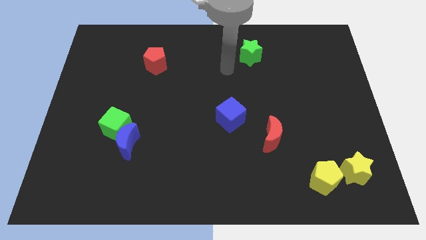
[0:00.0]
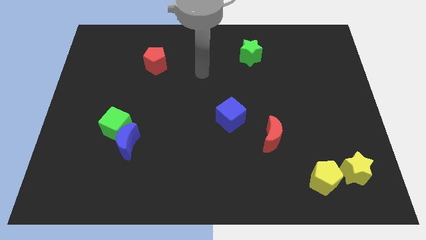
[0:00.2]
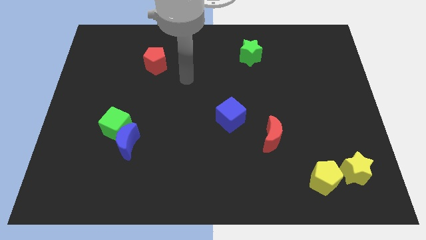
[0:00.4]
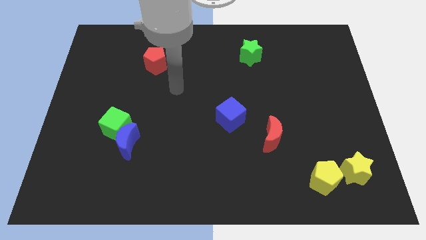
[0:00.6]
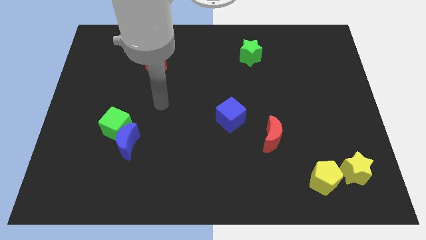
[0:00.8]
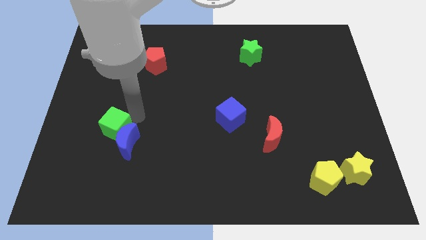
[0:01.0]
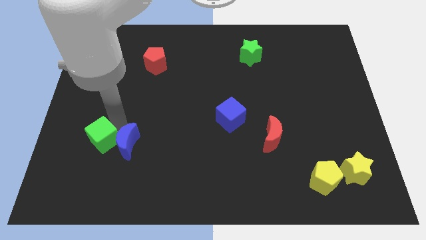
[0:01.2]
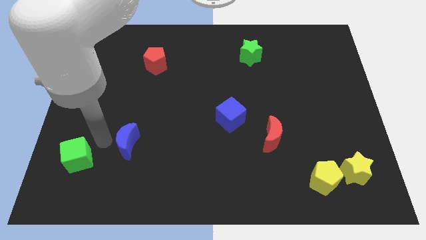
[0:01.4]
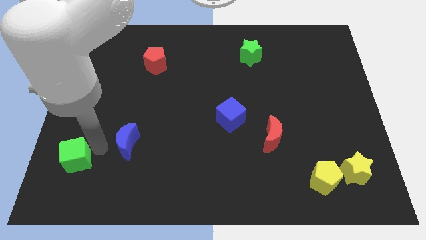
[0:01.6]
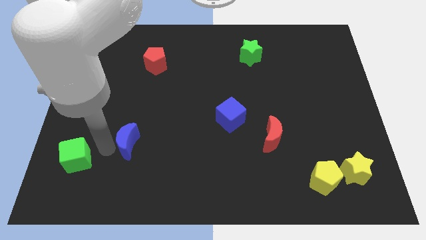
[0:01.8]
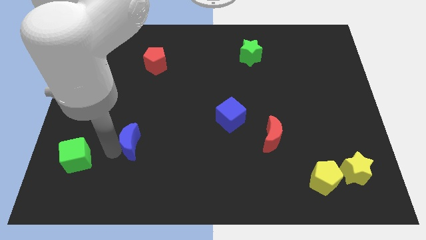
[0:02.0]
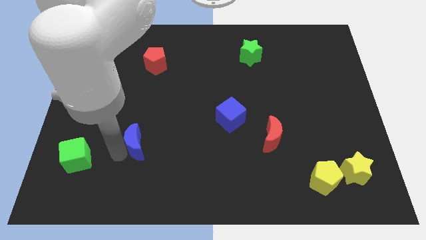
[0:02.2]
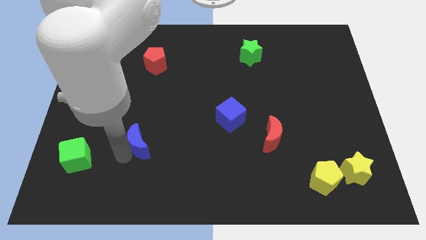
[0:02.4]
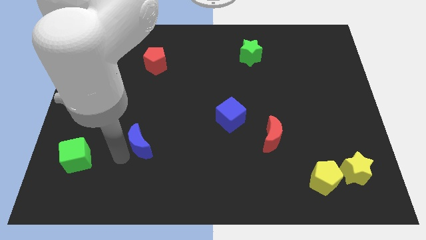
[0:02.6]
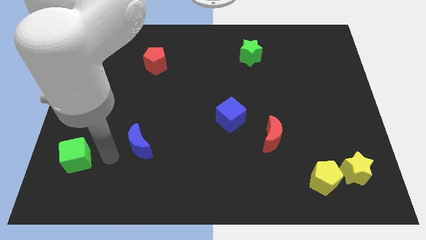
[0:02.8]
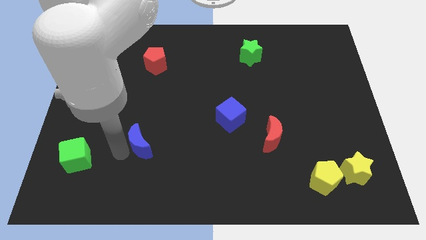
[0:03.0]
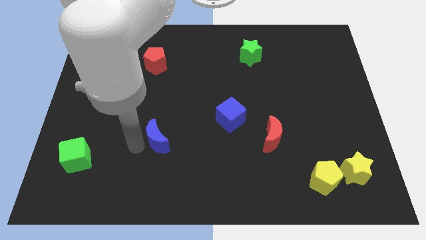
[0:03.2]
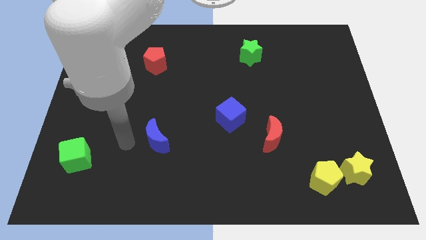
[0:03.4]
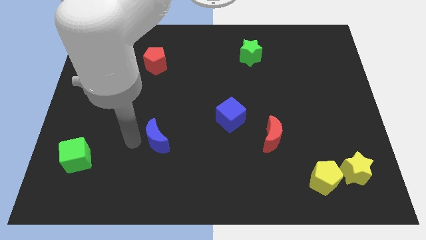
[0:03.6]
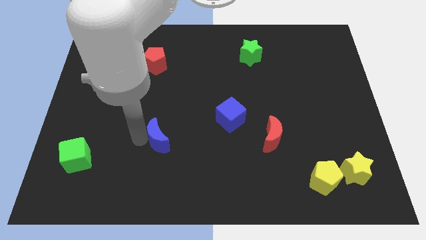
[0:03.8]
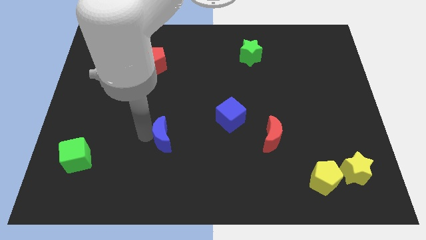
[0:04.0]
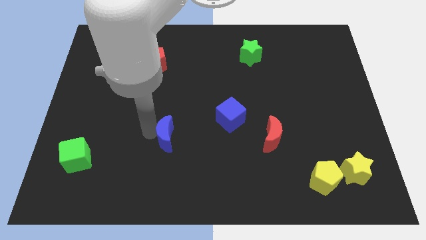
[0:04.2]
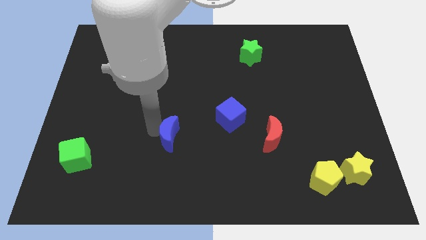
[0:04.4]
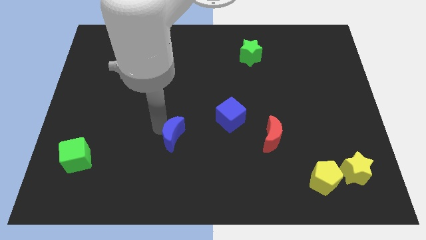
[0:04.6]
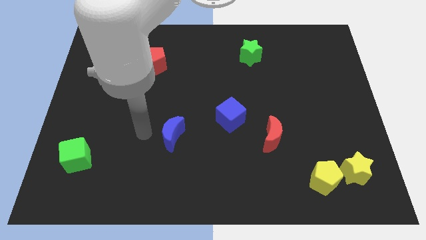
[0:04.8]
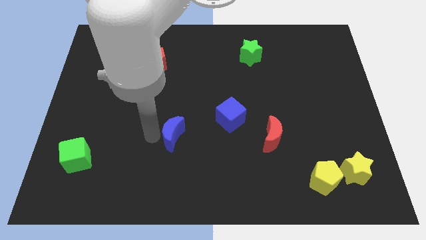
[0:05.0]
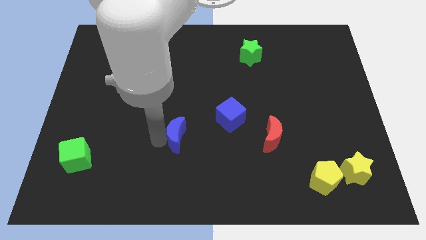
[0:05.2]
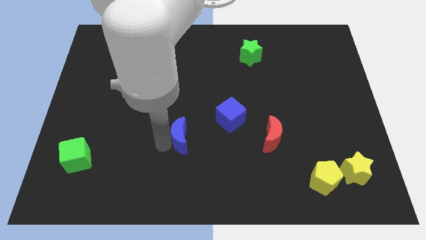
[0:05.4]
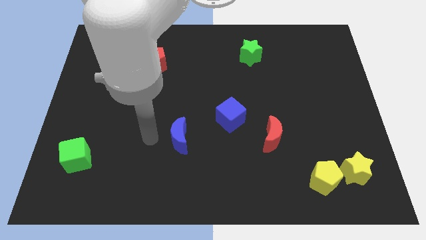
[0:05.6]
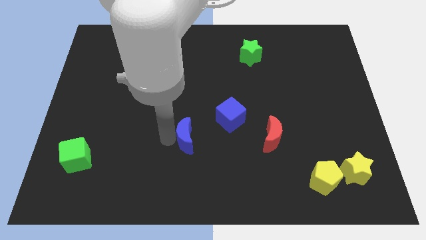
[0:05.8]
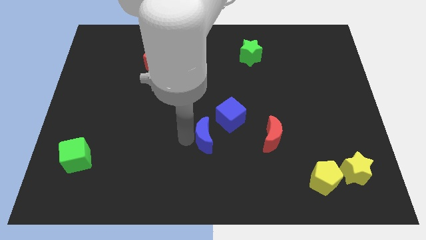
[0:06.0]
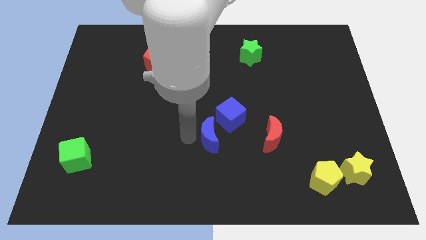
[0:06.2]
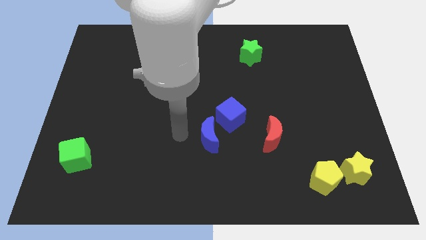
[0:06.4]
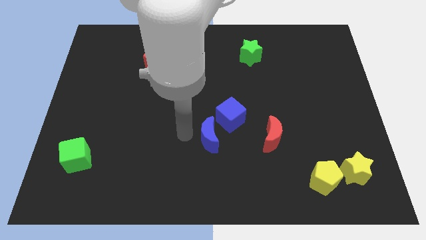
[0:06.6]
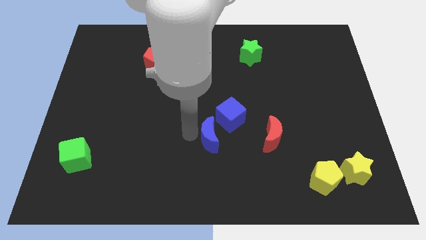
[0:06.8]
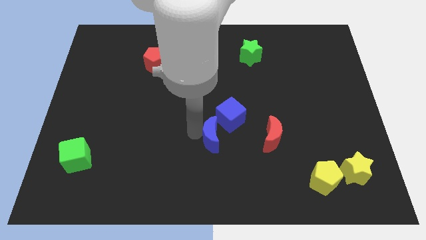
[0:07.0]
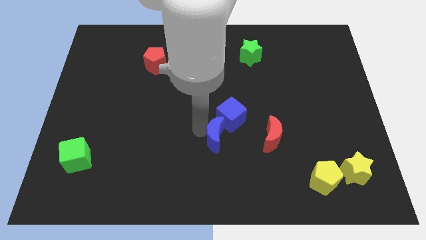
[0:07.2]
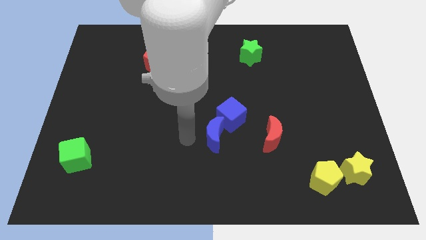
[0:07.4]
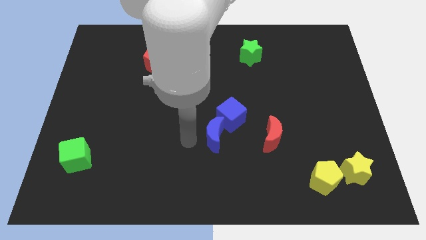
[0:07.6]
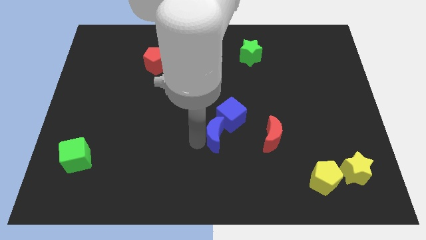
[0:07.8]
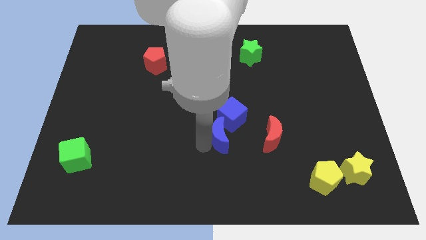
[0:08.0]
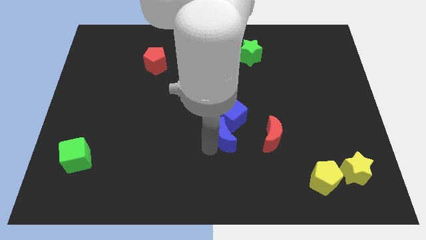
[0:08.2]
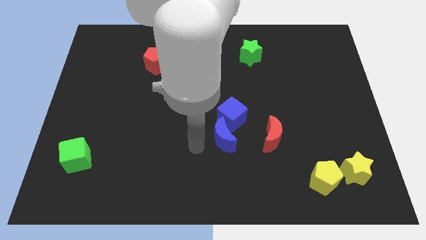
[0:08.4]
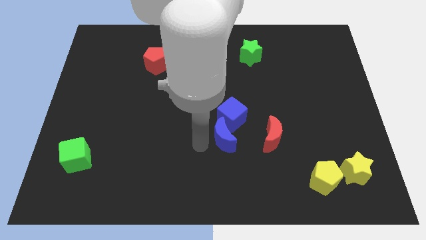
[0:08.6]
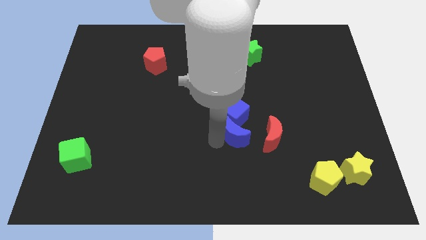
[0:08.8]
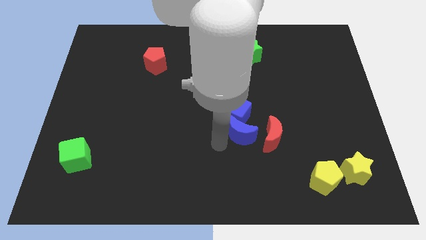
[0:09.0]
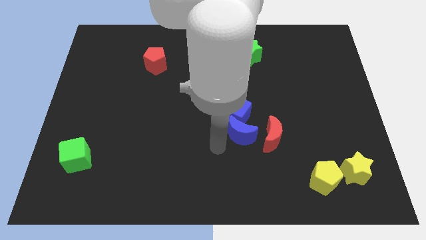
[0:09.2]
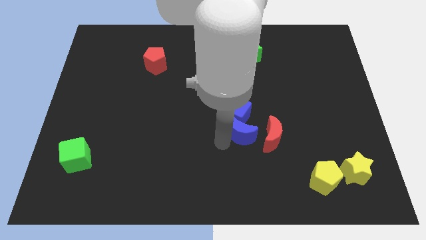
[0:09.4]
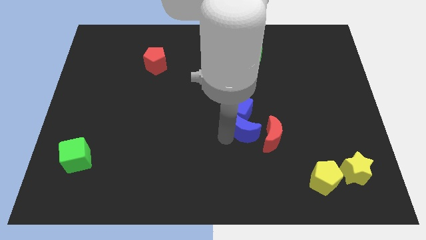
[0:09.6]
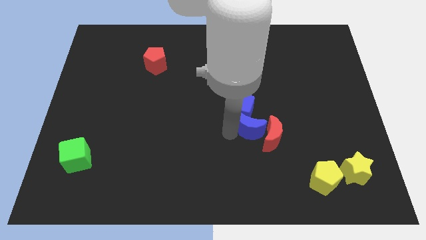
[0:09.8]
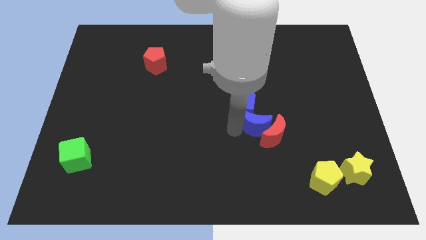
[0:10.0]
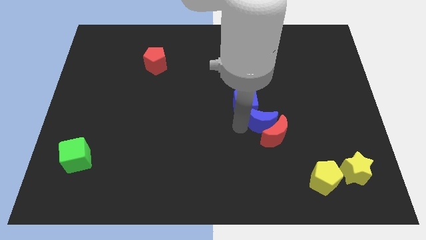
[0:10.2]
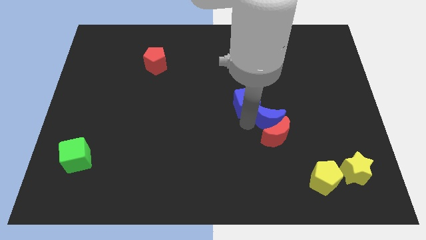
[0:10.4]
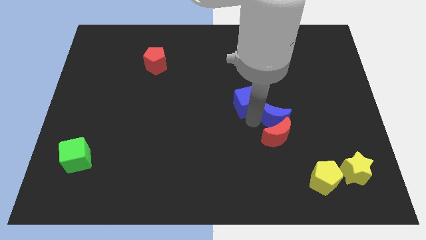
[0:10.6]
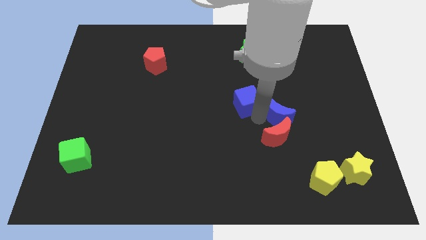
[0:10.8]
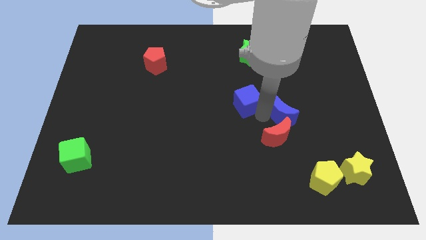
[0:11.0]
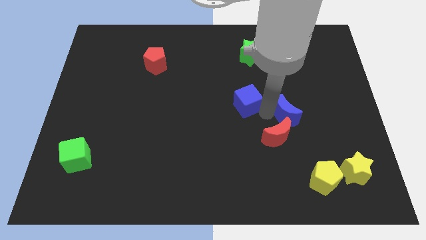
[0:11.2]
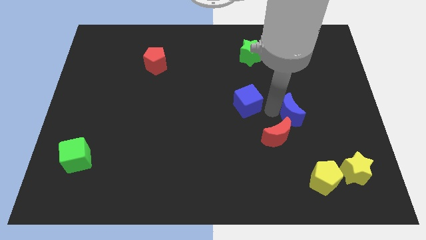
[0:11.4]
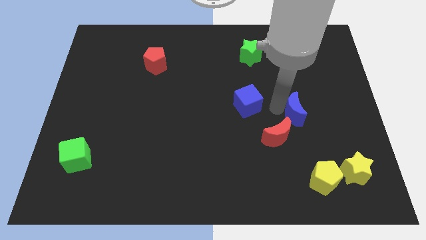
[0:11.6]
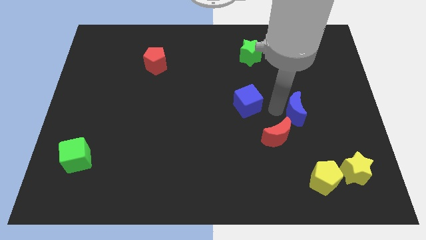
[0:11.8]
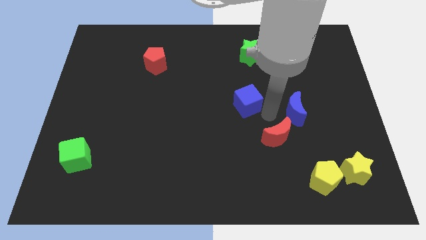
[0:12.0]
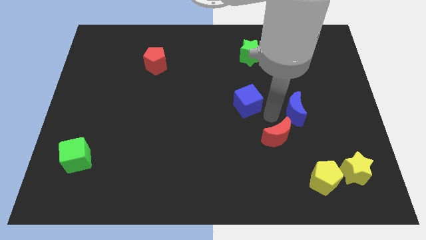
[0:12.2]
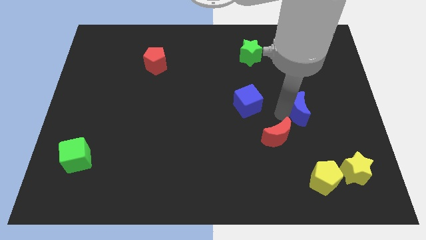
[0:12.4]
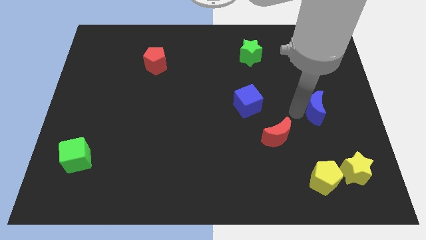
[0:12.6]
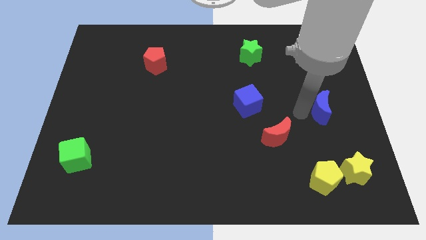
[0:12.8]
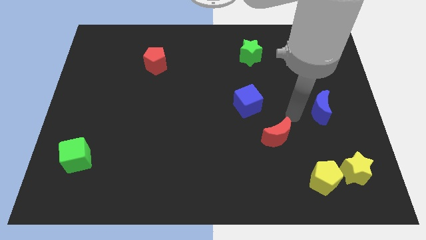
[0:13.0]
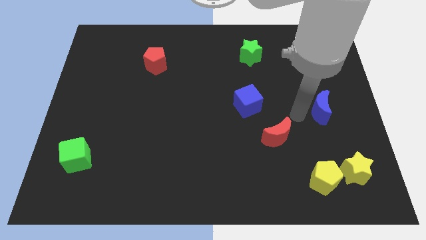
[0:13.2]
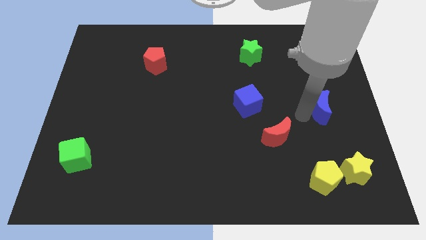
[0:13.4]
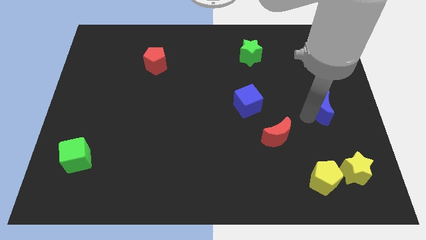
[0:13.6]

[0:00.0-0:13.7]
move the blue moon to the right side

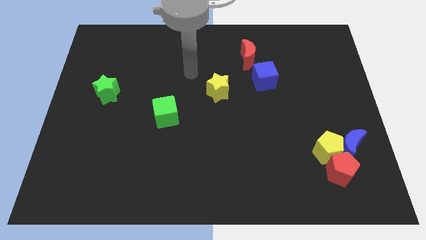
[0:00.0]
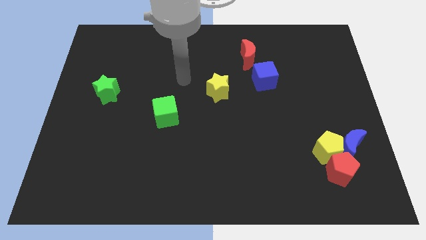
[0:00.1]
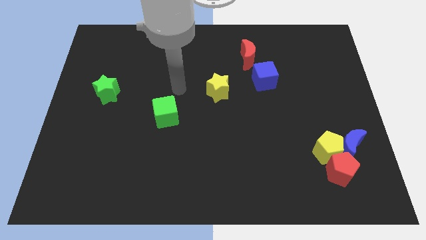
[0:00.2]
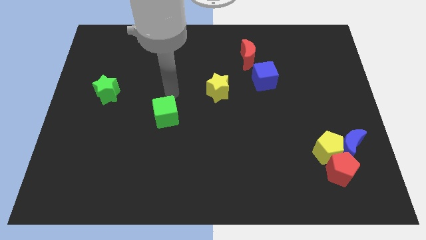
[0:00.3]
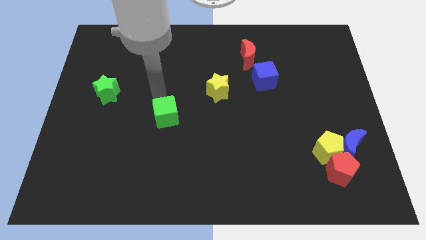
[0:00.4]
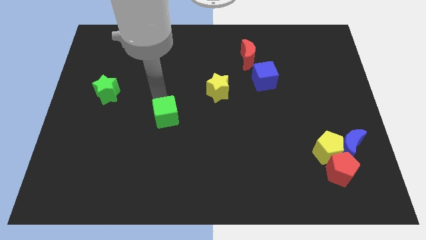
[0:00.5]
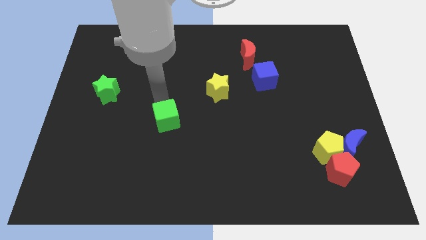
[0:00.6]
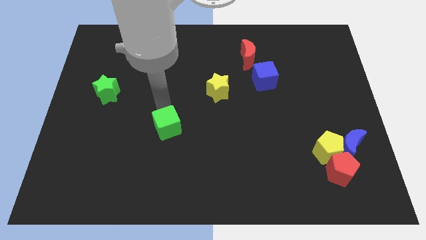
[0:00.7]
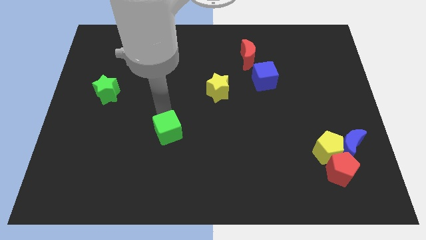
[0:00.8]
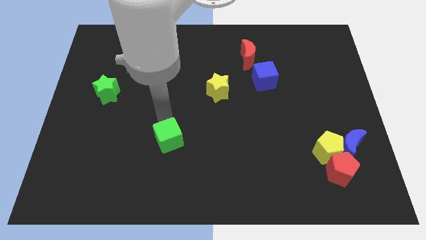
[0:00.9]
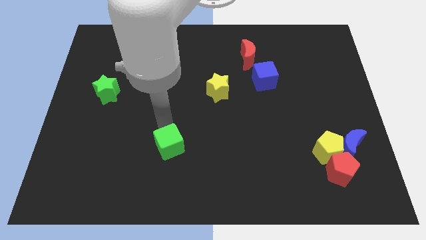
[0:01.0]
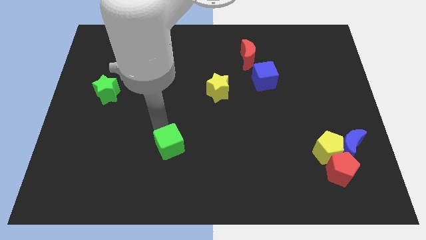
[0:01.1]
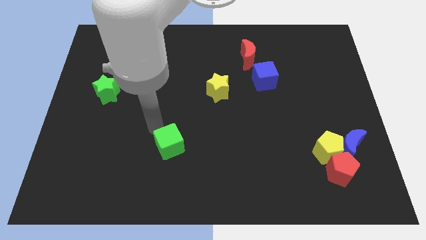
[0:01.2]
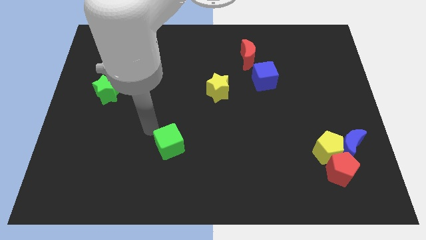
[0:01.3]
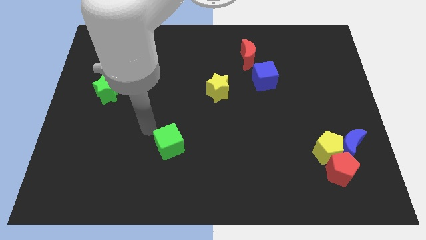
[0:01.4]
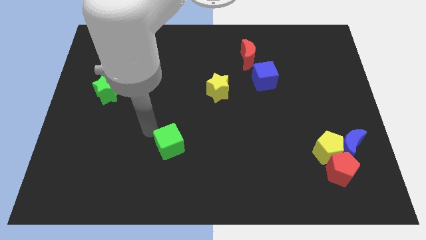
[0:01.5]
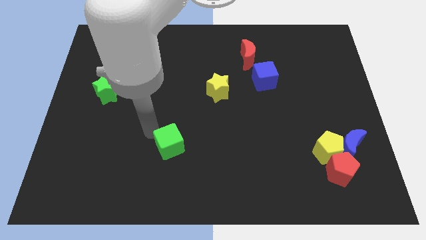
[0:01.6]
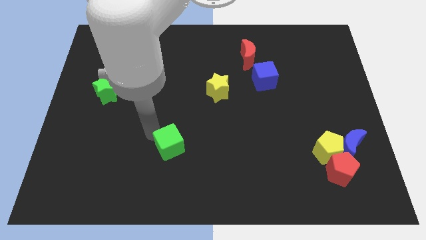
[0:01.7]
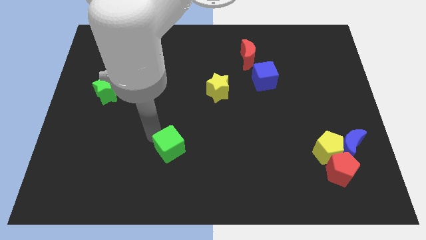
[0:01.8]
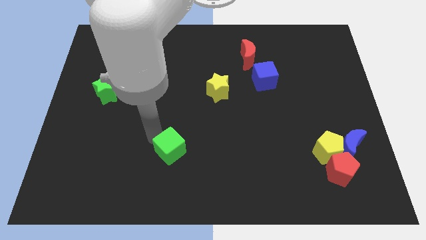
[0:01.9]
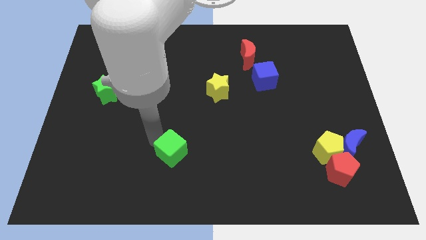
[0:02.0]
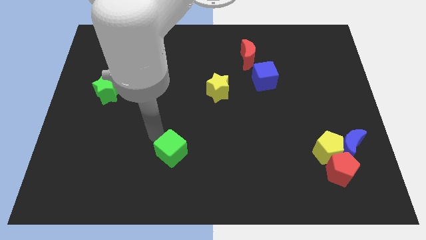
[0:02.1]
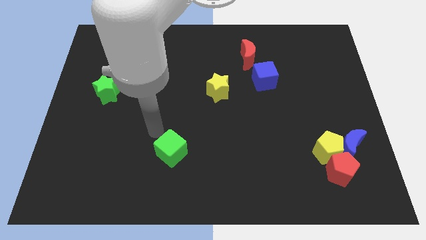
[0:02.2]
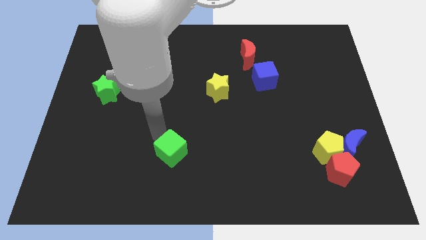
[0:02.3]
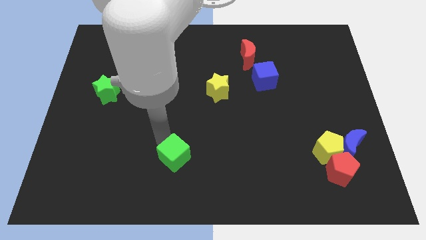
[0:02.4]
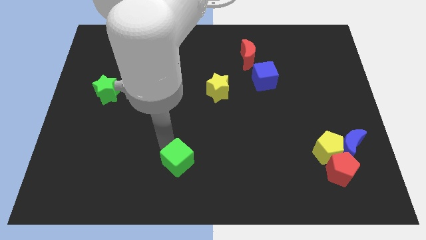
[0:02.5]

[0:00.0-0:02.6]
push the green cube to the bottom
